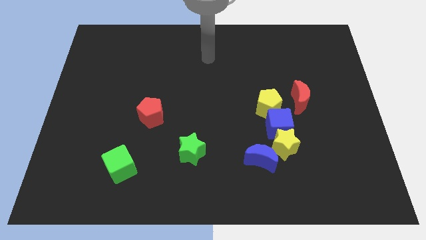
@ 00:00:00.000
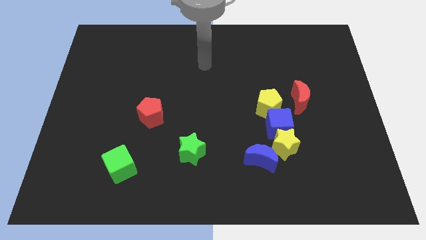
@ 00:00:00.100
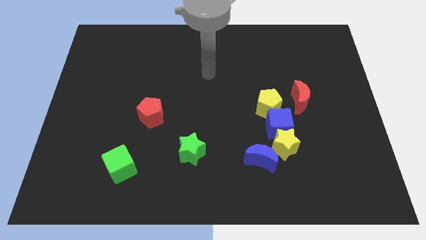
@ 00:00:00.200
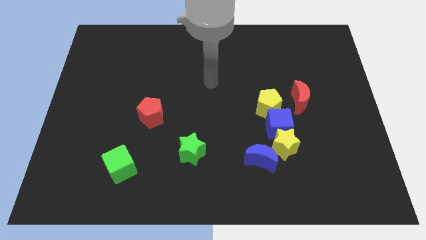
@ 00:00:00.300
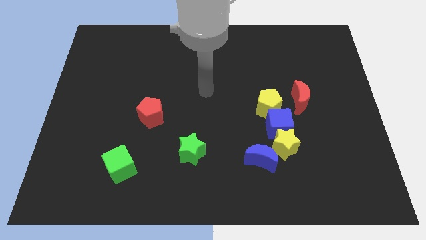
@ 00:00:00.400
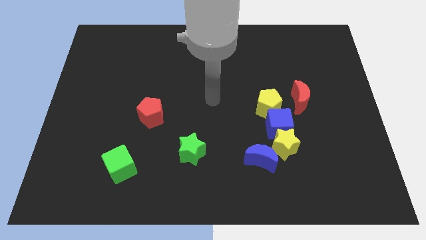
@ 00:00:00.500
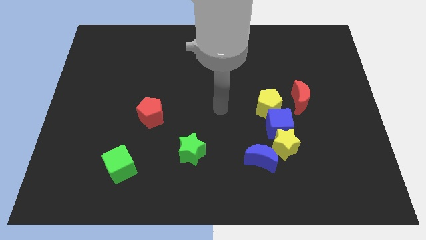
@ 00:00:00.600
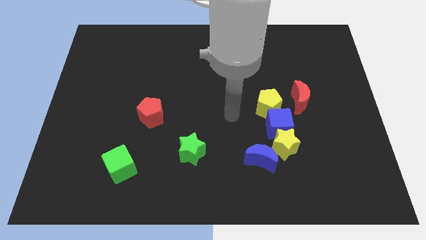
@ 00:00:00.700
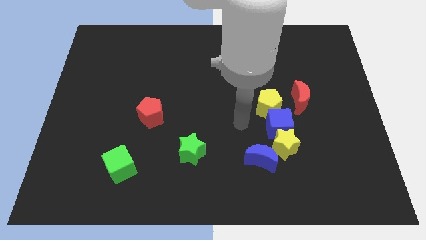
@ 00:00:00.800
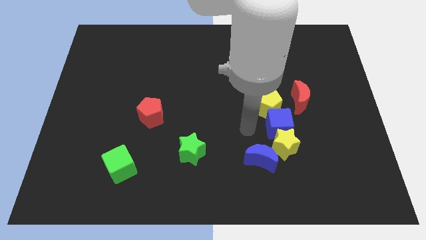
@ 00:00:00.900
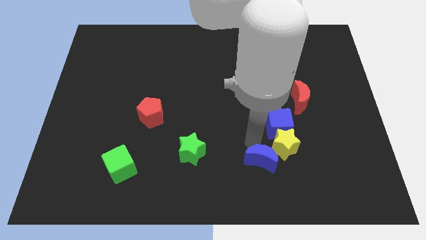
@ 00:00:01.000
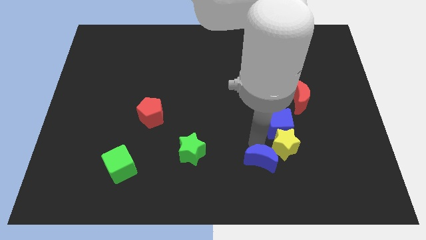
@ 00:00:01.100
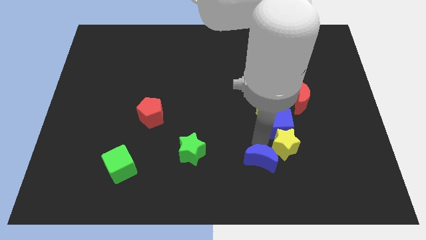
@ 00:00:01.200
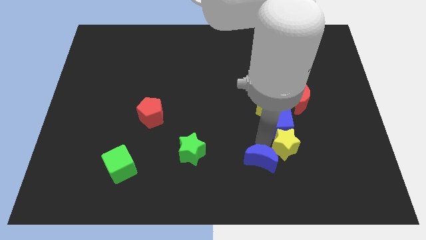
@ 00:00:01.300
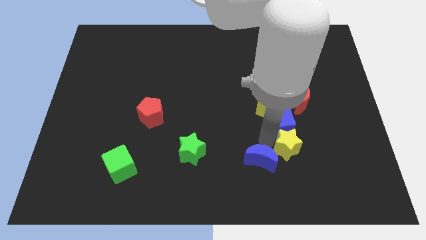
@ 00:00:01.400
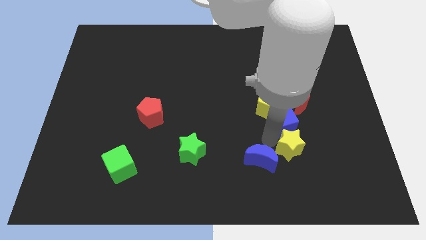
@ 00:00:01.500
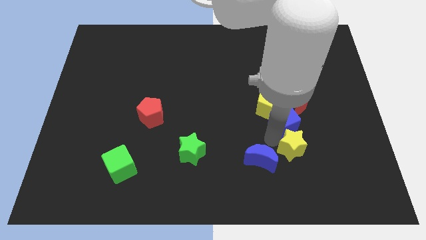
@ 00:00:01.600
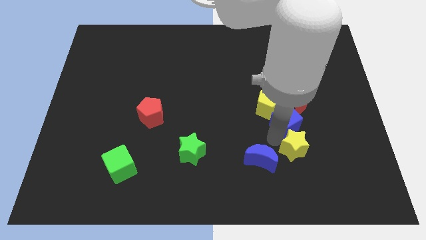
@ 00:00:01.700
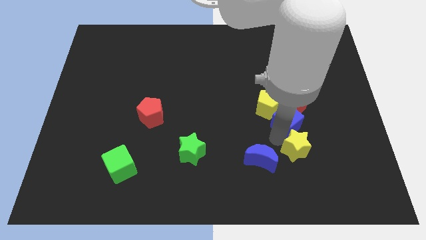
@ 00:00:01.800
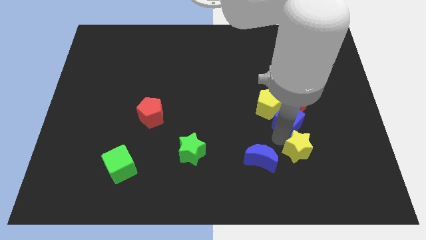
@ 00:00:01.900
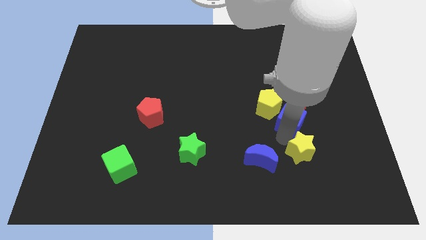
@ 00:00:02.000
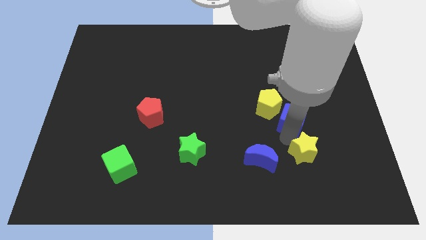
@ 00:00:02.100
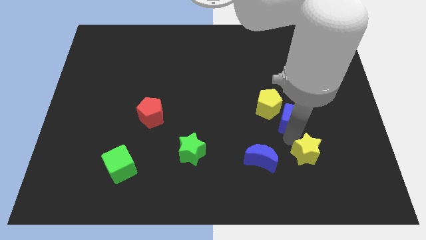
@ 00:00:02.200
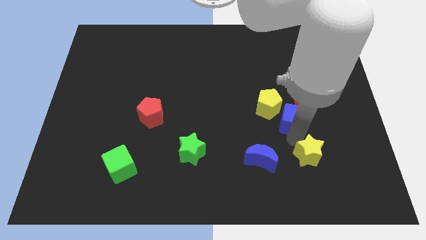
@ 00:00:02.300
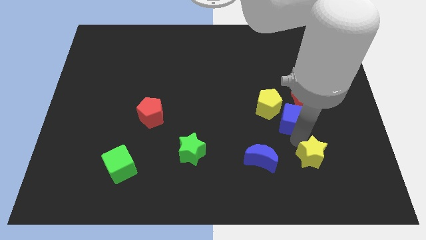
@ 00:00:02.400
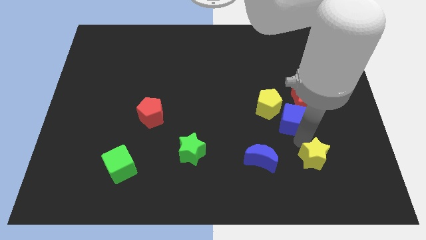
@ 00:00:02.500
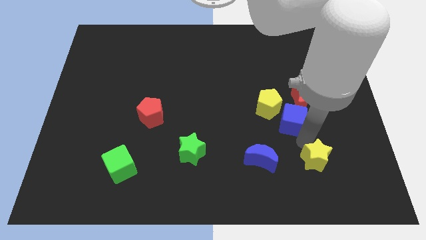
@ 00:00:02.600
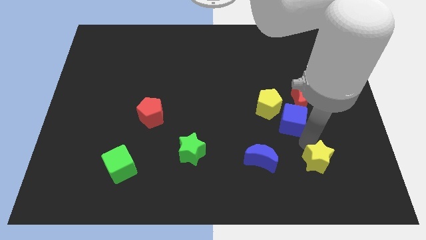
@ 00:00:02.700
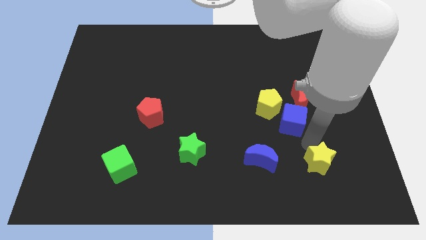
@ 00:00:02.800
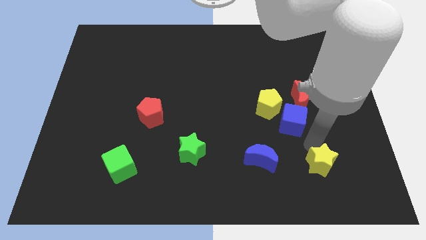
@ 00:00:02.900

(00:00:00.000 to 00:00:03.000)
separate the yellow star from the blue cube and blue moon

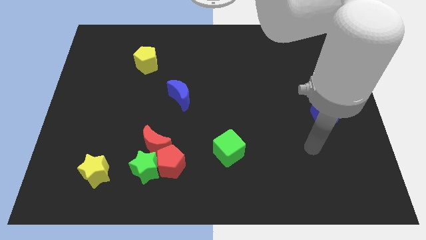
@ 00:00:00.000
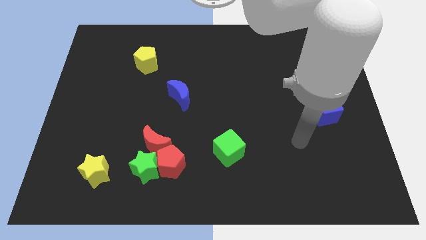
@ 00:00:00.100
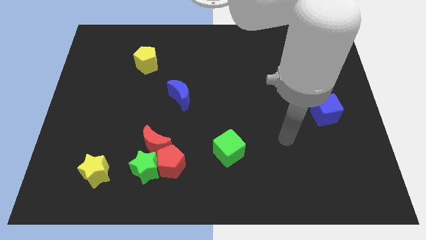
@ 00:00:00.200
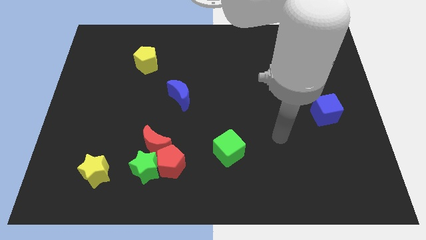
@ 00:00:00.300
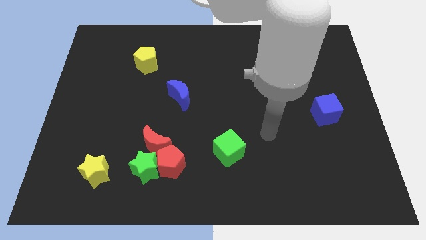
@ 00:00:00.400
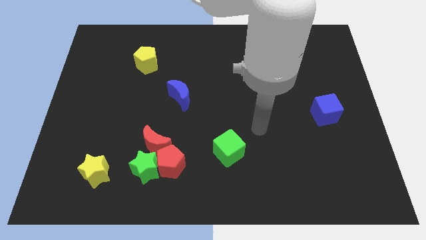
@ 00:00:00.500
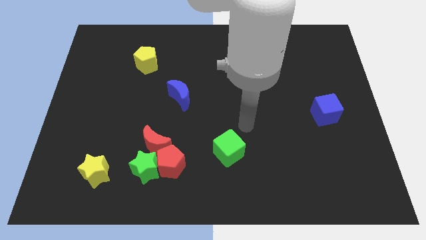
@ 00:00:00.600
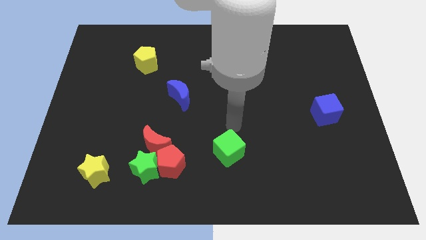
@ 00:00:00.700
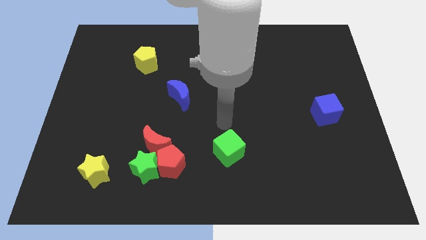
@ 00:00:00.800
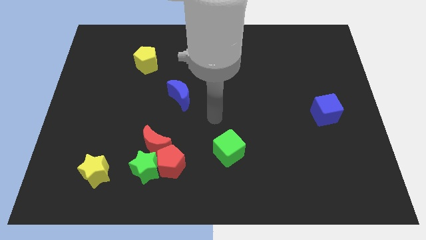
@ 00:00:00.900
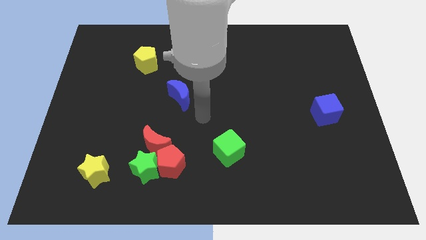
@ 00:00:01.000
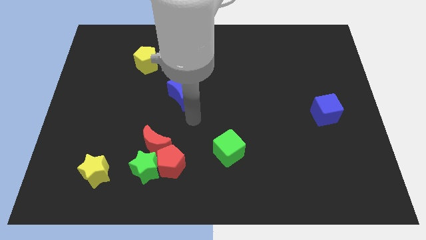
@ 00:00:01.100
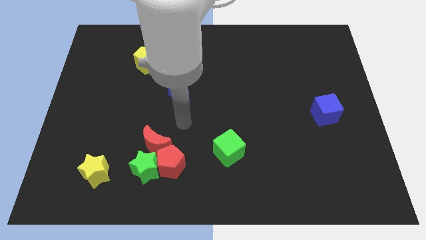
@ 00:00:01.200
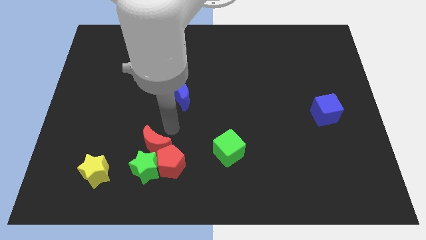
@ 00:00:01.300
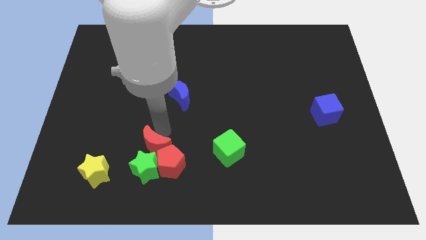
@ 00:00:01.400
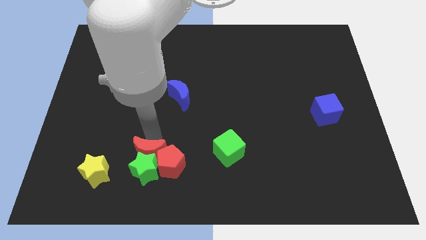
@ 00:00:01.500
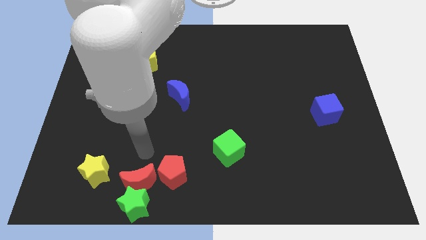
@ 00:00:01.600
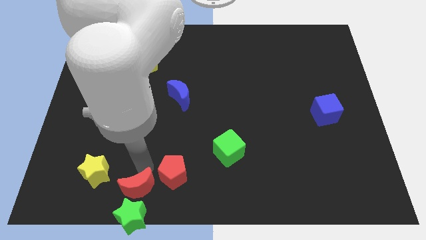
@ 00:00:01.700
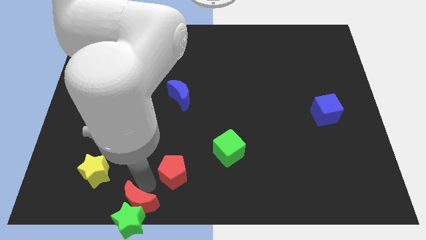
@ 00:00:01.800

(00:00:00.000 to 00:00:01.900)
pull the red pentagon apart from the green star and red moon

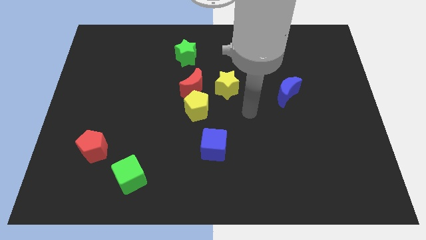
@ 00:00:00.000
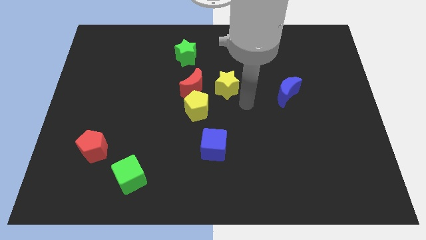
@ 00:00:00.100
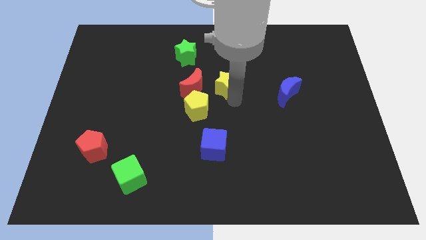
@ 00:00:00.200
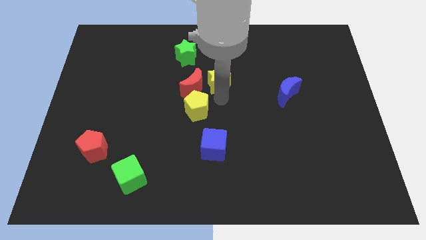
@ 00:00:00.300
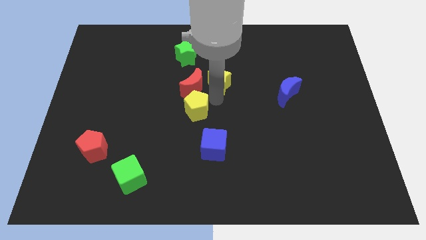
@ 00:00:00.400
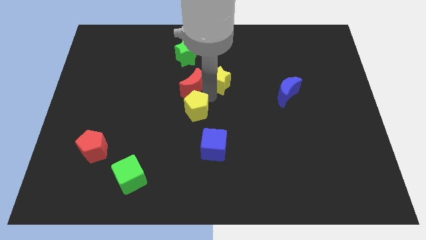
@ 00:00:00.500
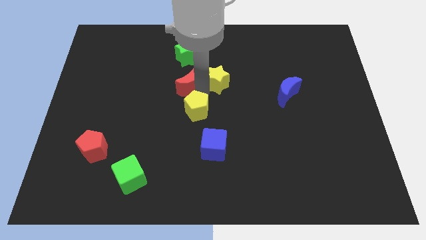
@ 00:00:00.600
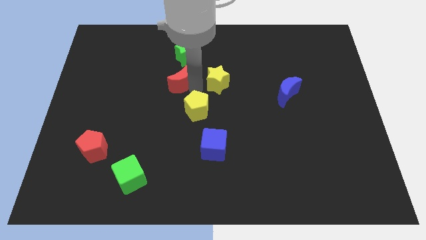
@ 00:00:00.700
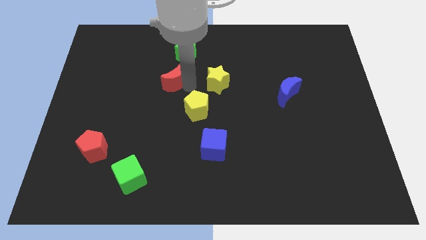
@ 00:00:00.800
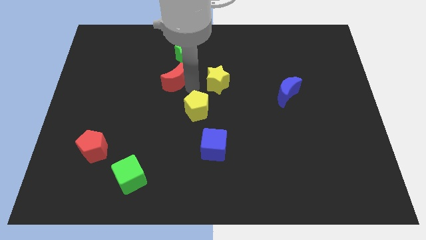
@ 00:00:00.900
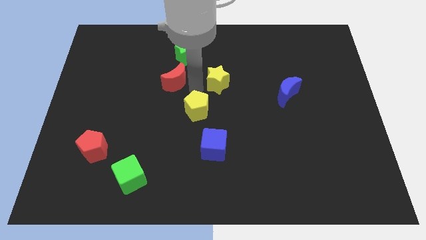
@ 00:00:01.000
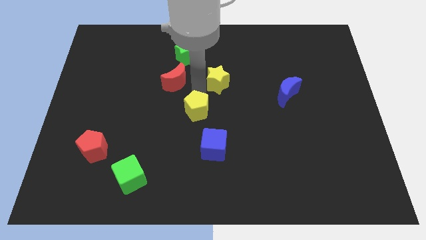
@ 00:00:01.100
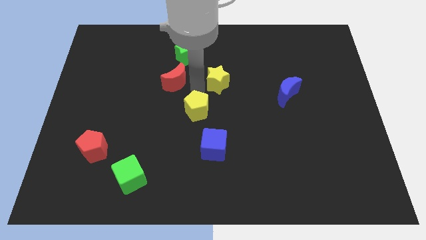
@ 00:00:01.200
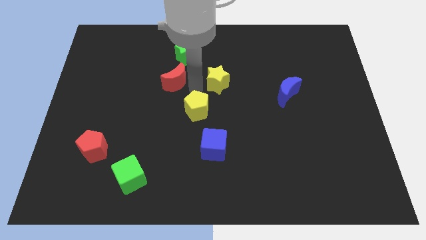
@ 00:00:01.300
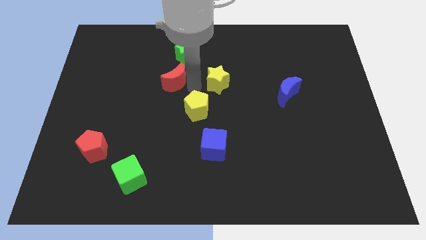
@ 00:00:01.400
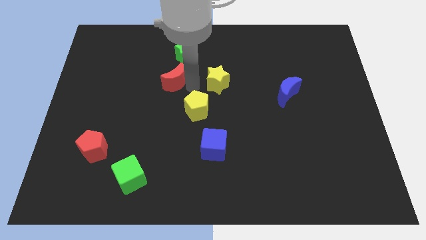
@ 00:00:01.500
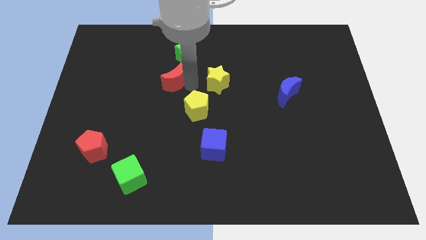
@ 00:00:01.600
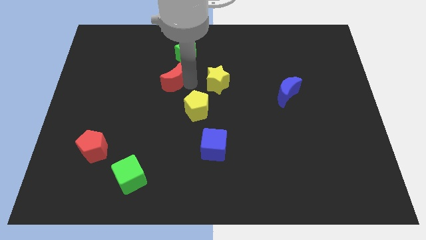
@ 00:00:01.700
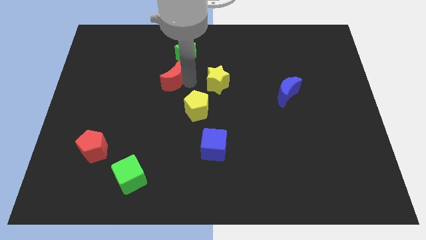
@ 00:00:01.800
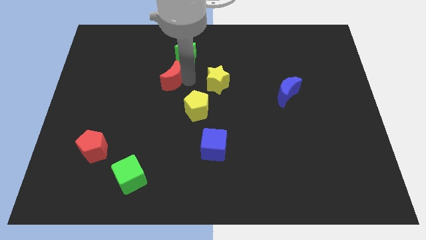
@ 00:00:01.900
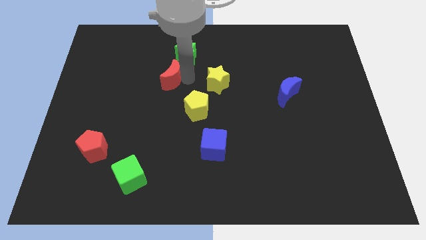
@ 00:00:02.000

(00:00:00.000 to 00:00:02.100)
move the red moon away from the yellow pentagon and yellow star

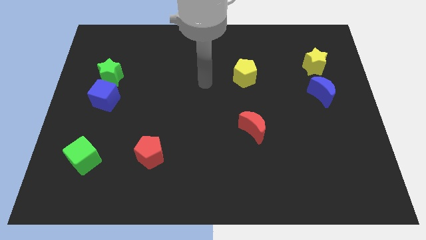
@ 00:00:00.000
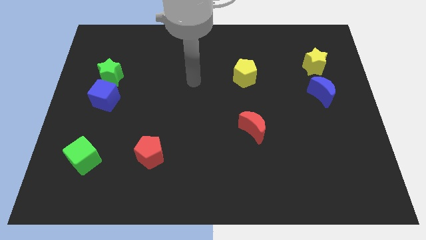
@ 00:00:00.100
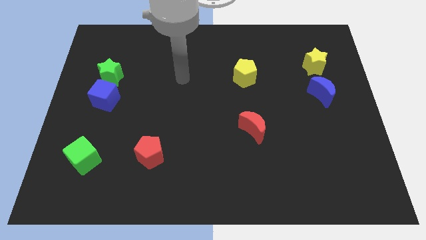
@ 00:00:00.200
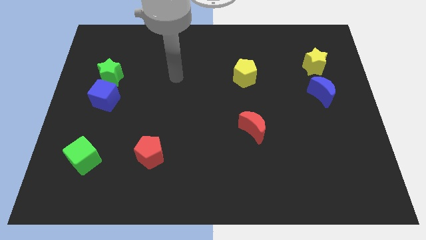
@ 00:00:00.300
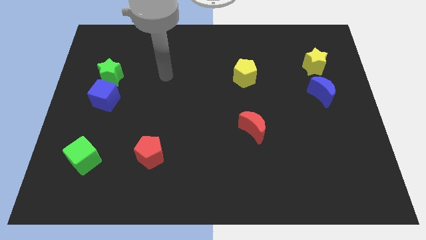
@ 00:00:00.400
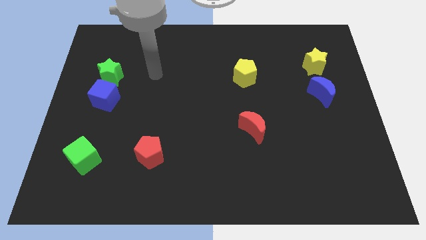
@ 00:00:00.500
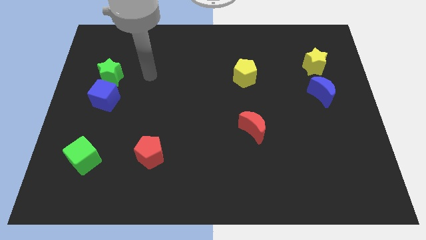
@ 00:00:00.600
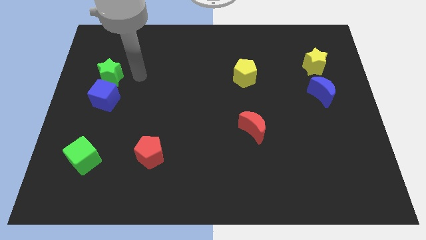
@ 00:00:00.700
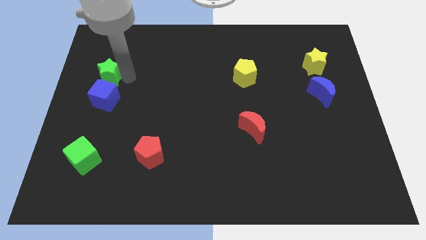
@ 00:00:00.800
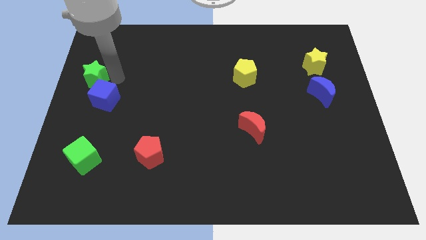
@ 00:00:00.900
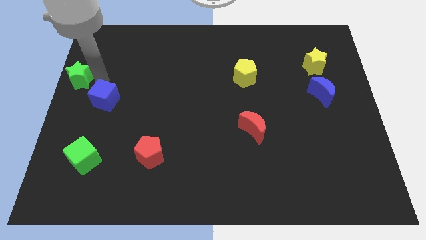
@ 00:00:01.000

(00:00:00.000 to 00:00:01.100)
move the blue cube away from the green star

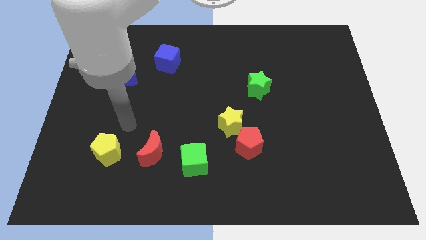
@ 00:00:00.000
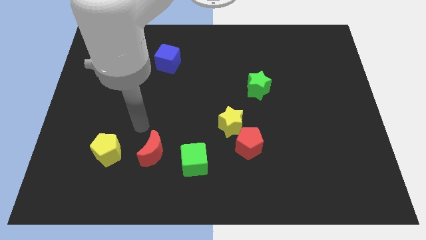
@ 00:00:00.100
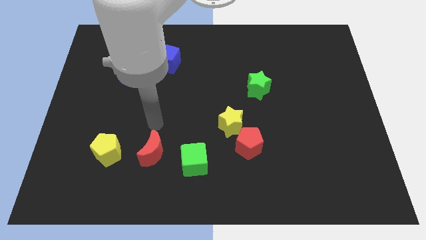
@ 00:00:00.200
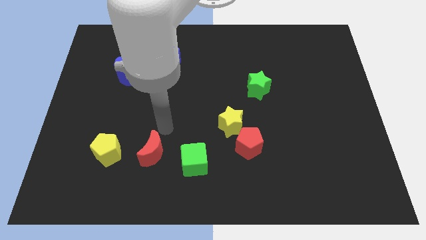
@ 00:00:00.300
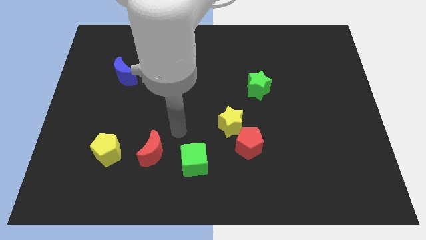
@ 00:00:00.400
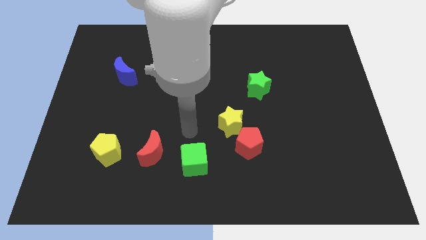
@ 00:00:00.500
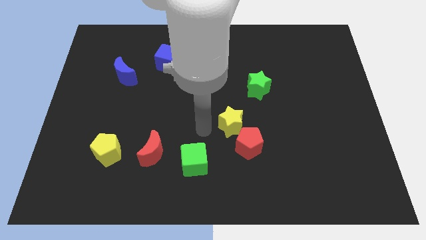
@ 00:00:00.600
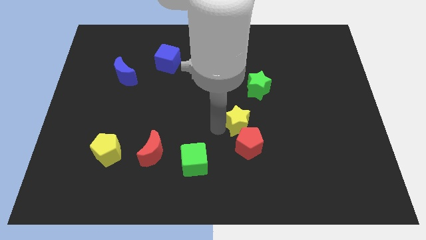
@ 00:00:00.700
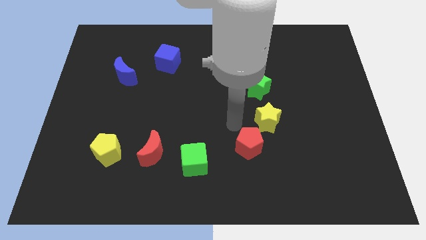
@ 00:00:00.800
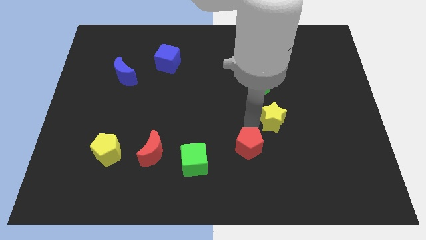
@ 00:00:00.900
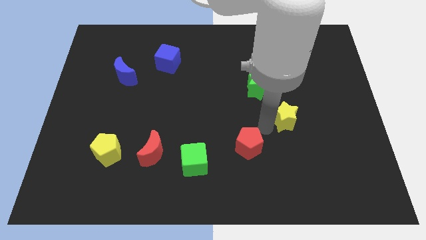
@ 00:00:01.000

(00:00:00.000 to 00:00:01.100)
pull the red pentagon apart from the yellow star

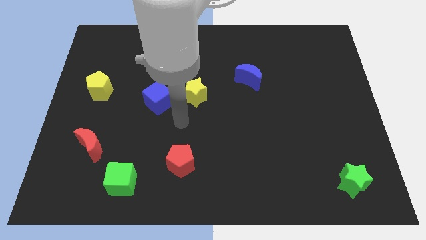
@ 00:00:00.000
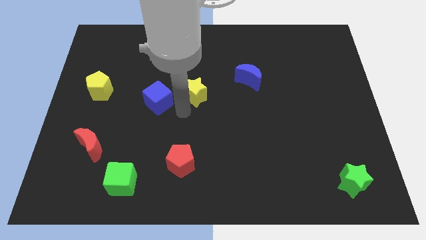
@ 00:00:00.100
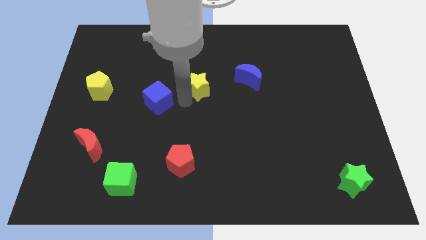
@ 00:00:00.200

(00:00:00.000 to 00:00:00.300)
pull the blue cube apart from the yellow star
